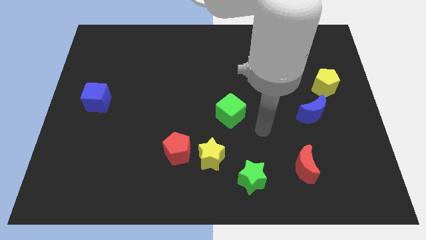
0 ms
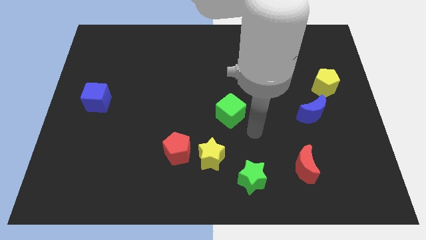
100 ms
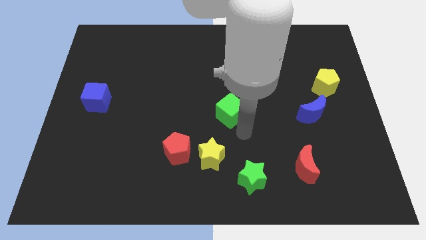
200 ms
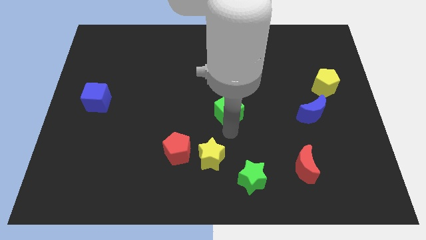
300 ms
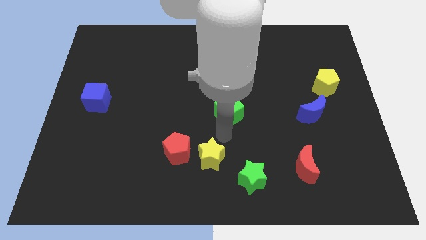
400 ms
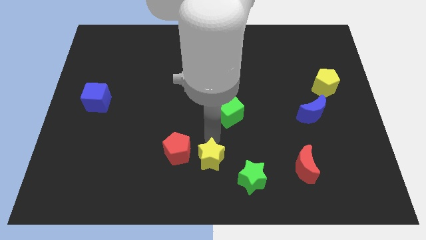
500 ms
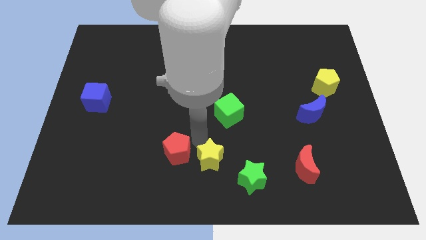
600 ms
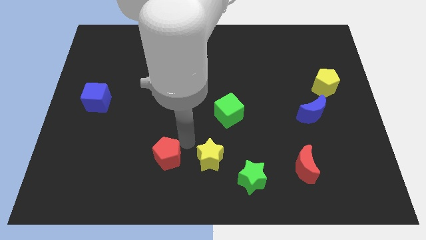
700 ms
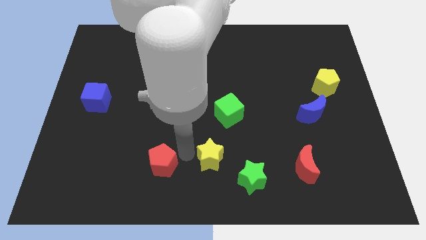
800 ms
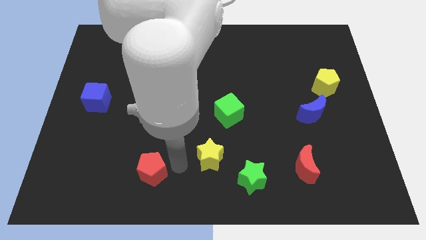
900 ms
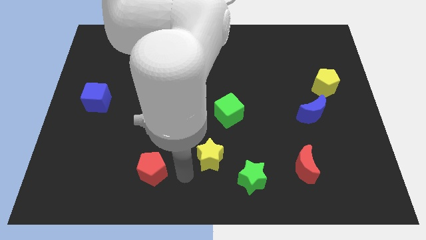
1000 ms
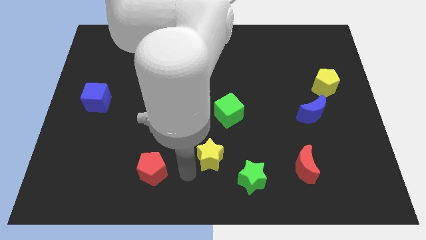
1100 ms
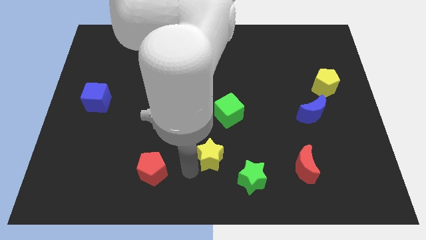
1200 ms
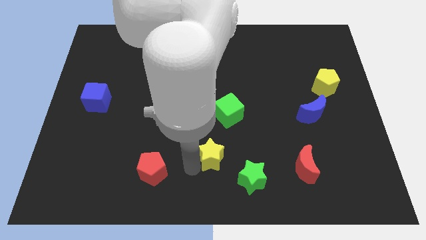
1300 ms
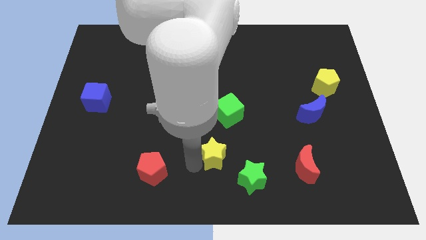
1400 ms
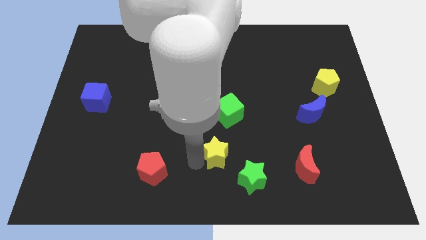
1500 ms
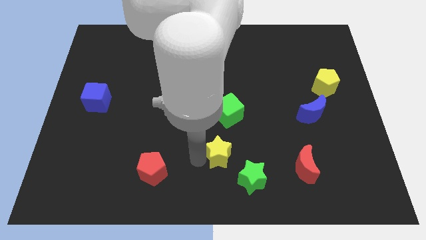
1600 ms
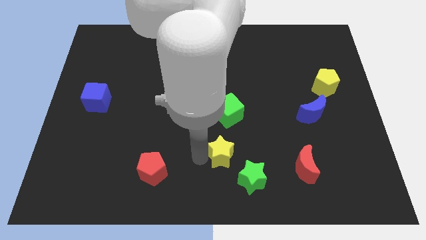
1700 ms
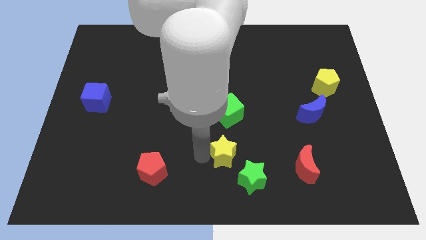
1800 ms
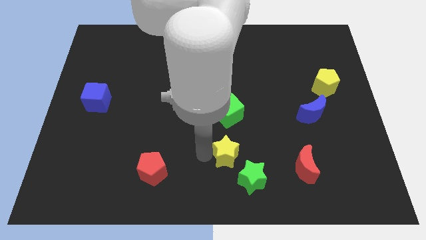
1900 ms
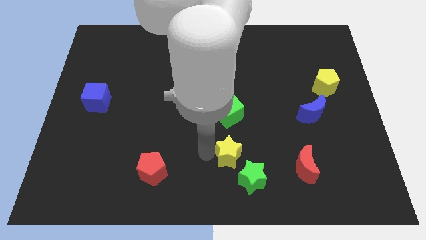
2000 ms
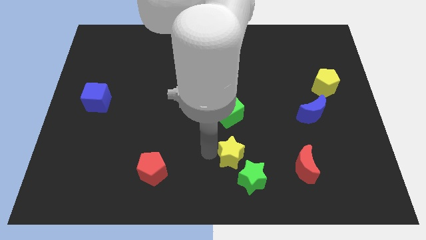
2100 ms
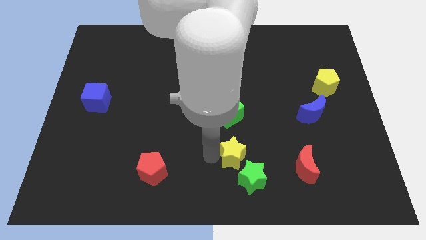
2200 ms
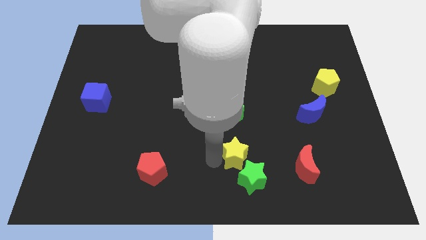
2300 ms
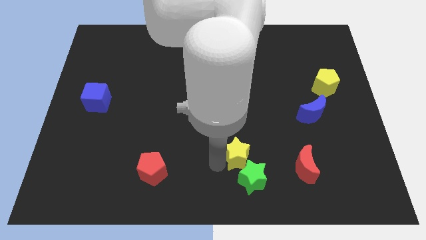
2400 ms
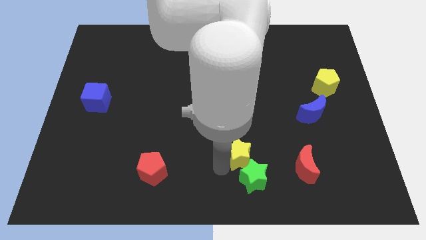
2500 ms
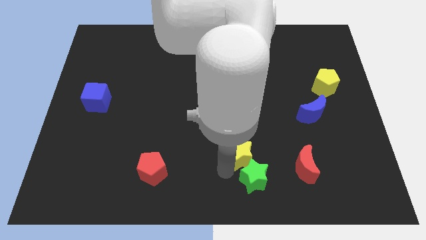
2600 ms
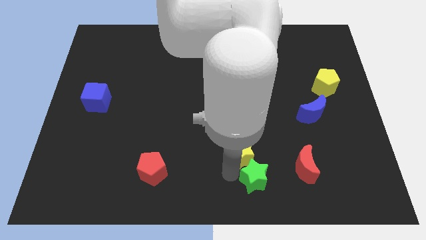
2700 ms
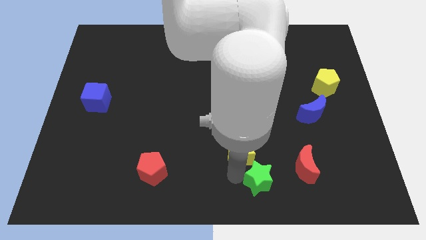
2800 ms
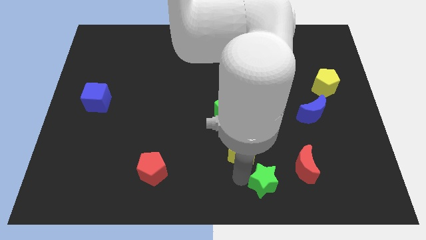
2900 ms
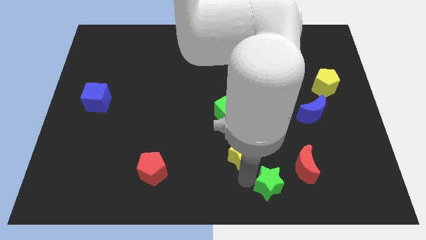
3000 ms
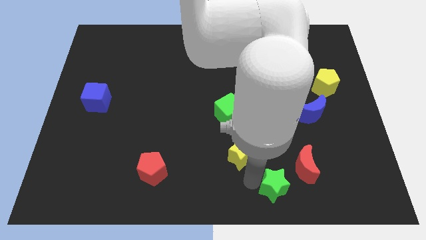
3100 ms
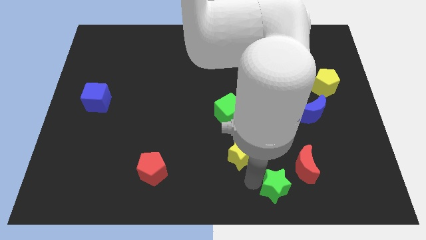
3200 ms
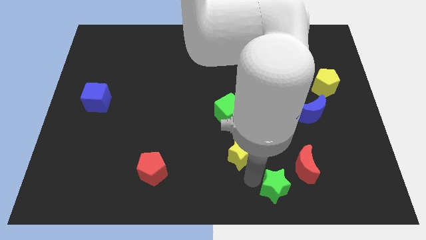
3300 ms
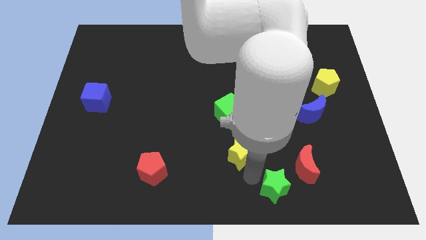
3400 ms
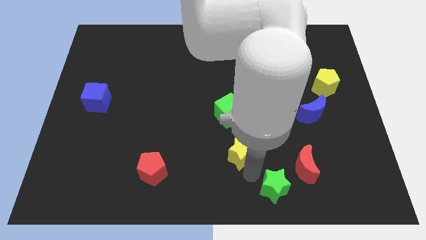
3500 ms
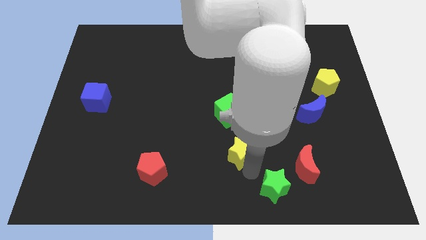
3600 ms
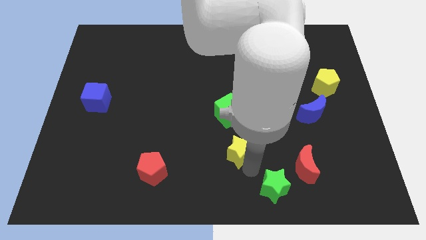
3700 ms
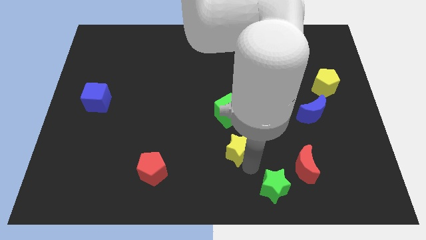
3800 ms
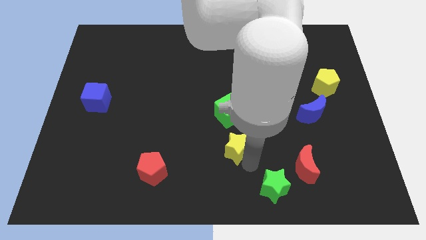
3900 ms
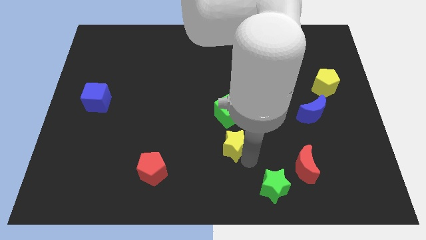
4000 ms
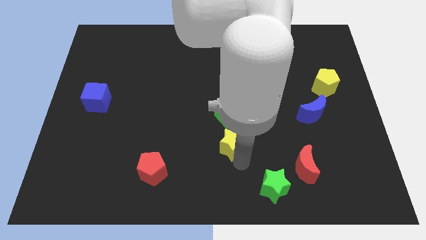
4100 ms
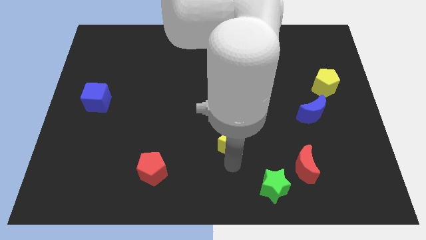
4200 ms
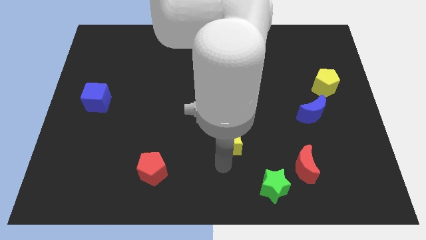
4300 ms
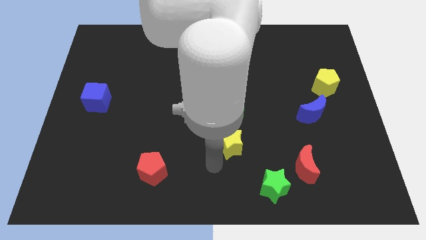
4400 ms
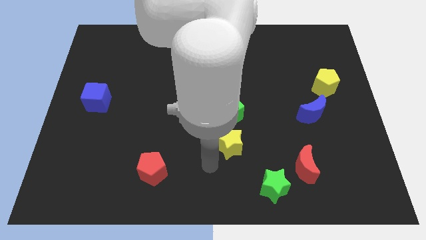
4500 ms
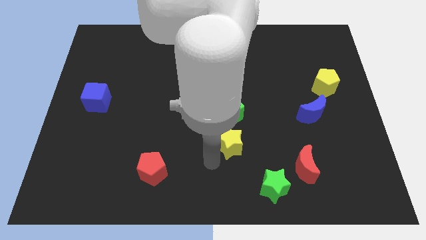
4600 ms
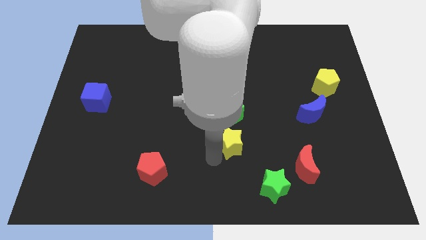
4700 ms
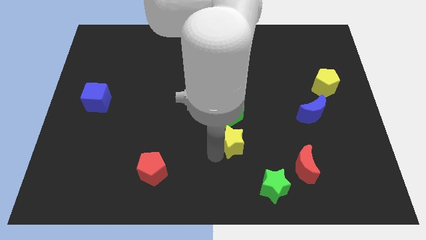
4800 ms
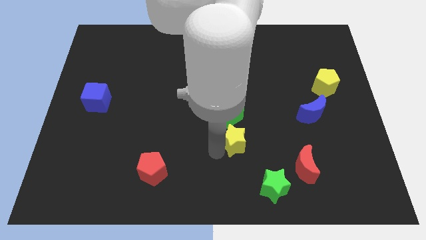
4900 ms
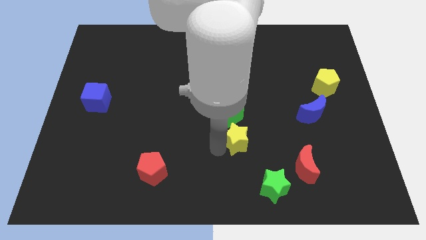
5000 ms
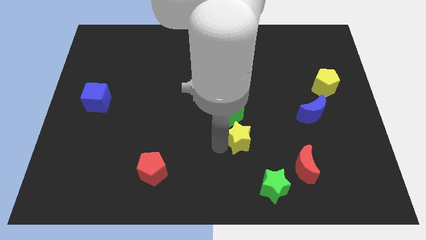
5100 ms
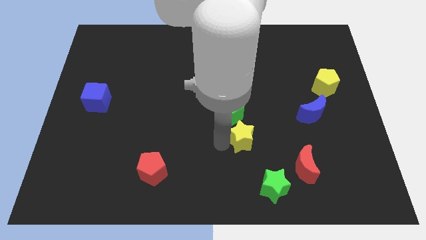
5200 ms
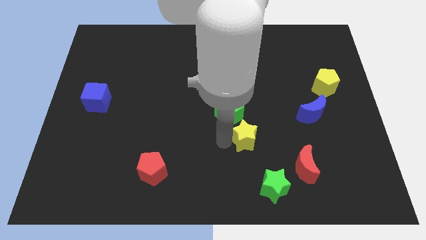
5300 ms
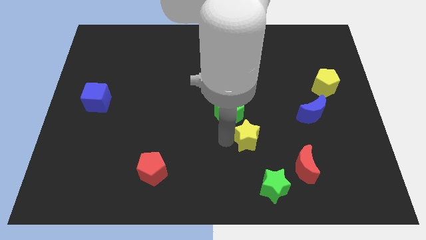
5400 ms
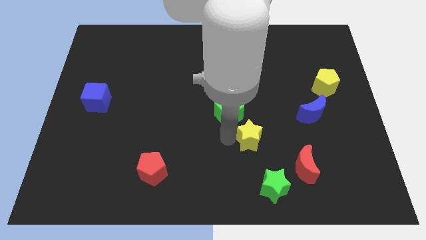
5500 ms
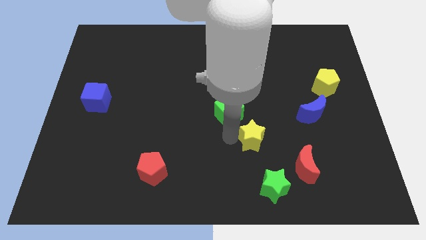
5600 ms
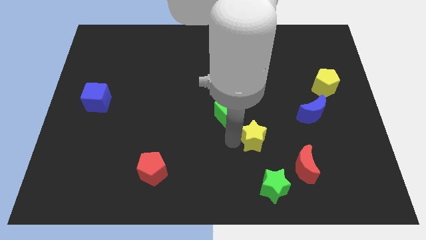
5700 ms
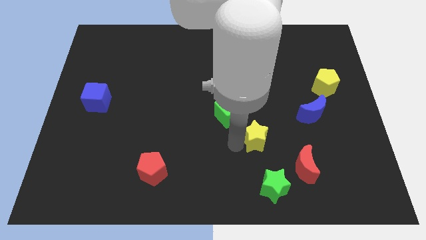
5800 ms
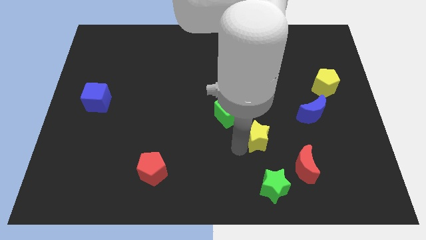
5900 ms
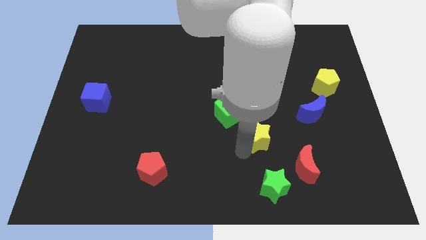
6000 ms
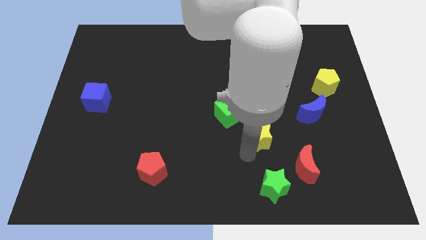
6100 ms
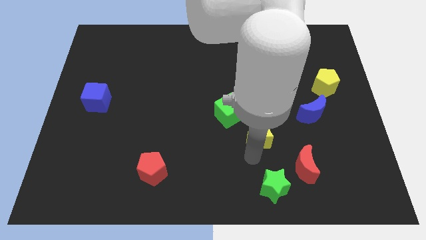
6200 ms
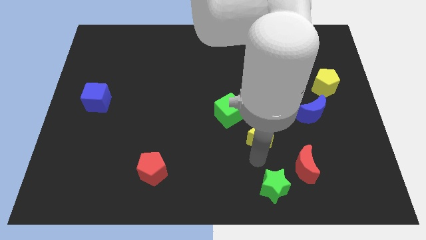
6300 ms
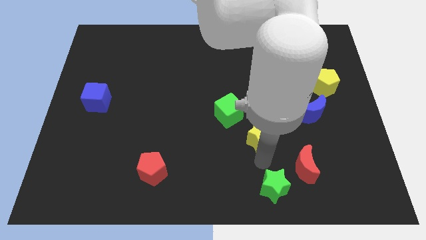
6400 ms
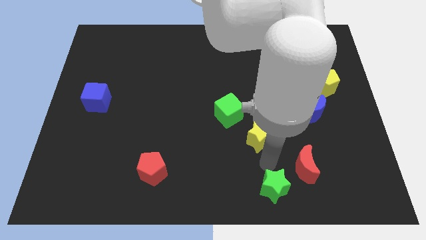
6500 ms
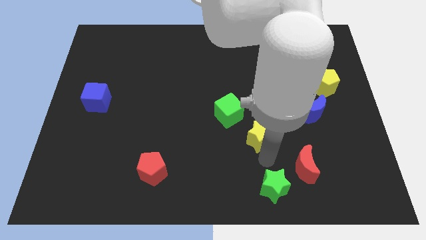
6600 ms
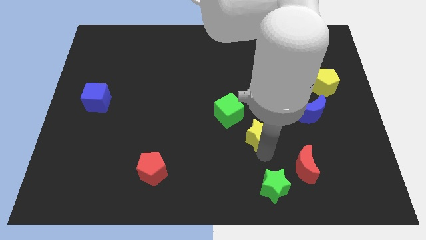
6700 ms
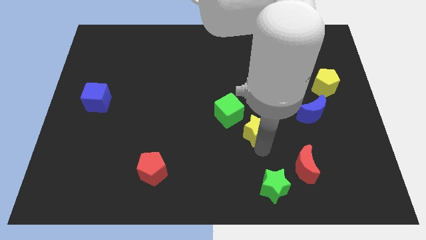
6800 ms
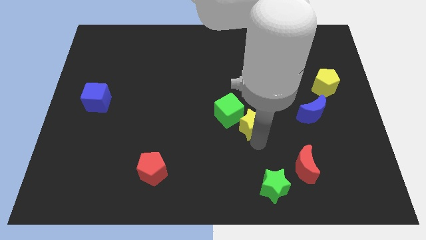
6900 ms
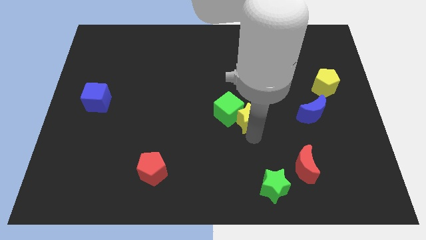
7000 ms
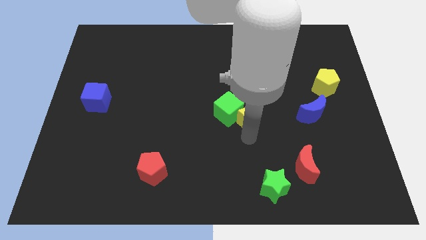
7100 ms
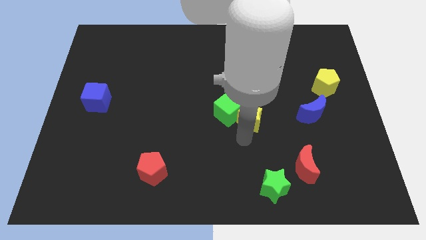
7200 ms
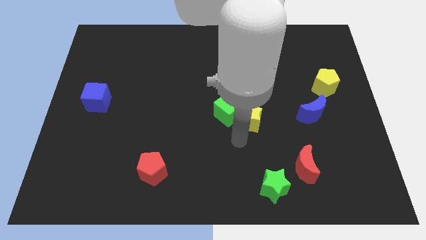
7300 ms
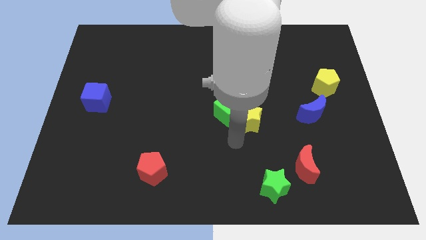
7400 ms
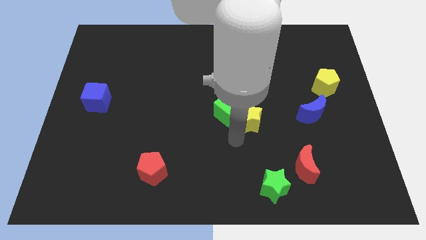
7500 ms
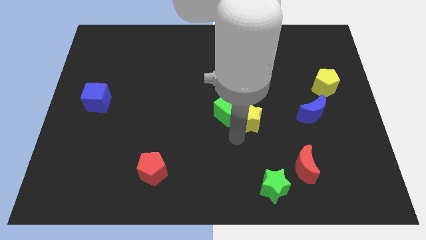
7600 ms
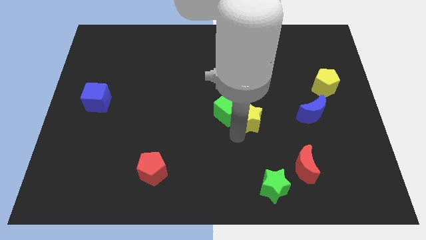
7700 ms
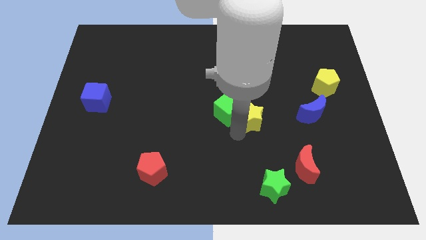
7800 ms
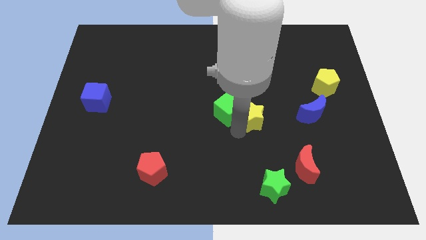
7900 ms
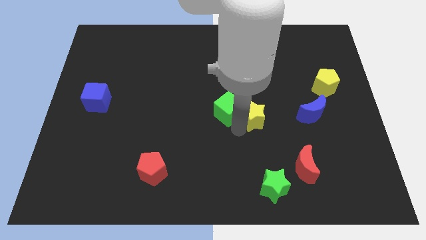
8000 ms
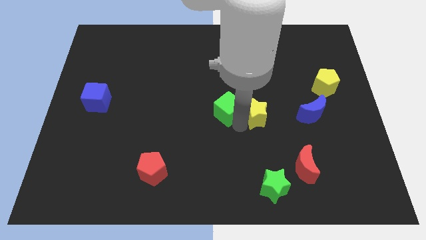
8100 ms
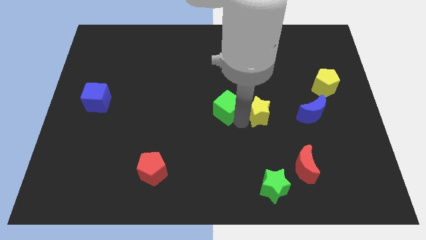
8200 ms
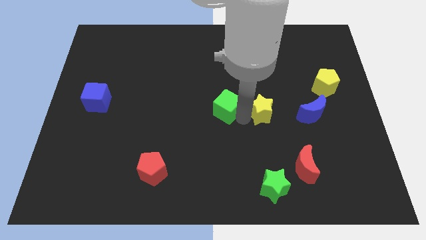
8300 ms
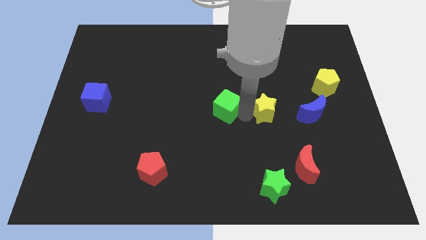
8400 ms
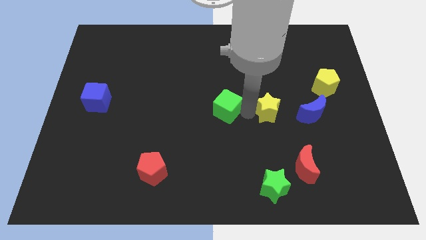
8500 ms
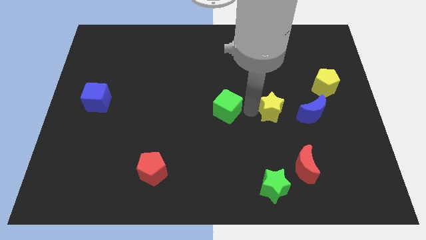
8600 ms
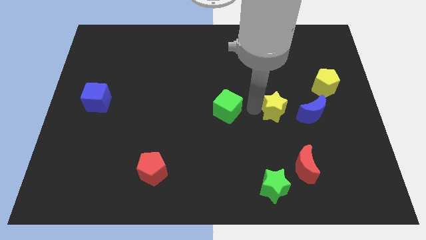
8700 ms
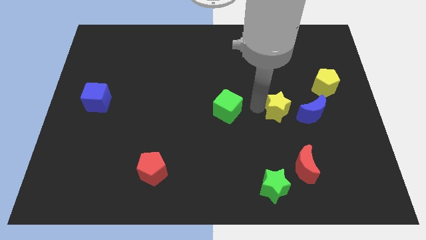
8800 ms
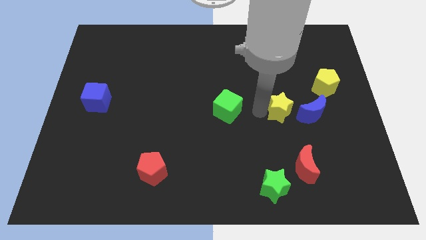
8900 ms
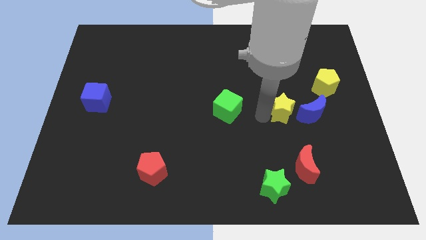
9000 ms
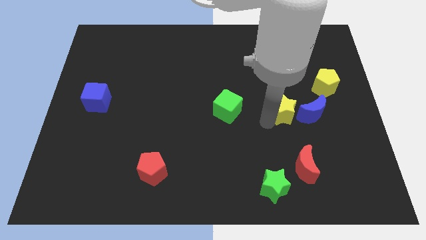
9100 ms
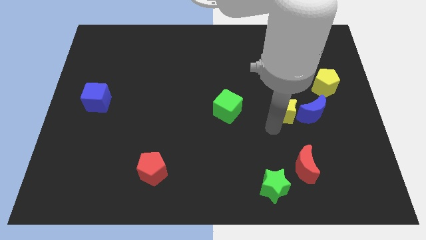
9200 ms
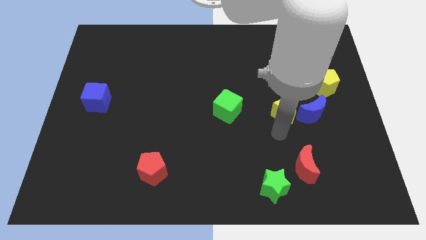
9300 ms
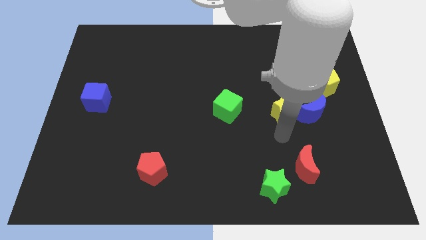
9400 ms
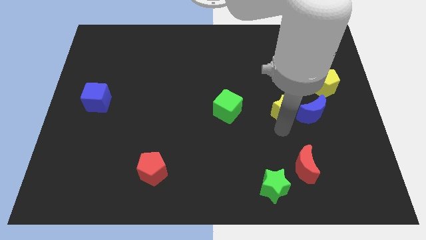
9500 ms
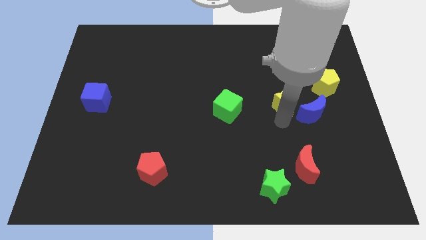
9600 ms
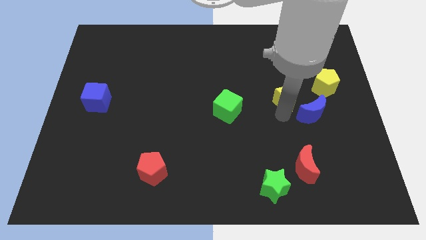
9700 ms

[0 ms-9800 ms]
slide the yellow star just left of the yellow pentagon
